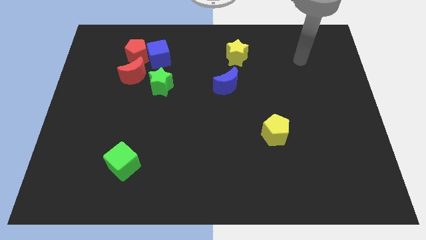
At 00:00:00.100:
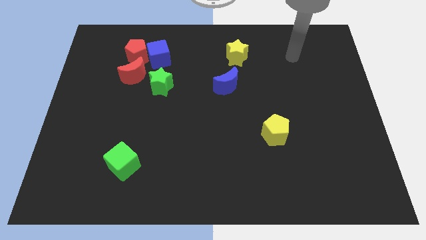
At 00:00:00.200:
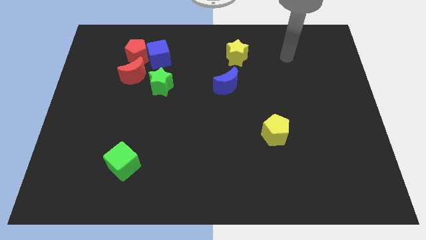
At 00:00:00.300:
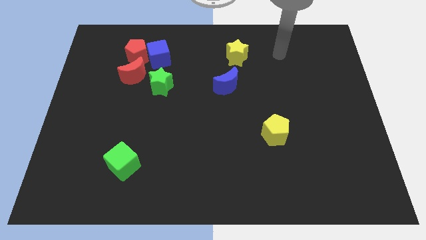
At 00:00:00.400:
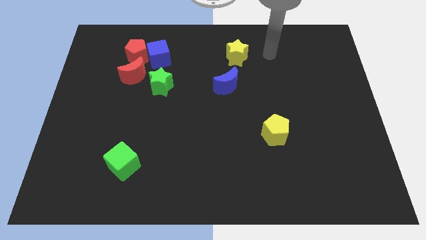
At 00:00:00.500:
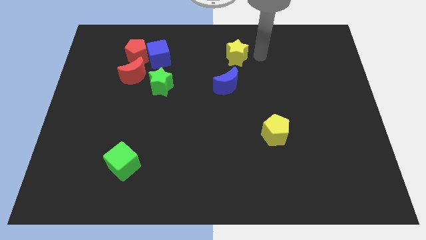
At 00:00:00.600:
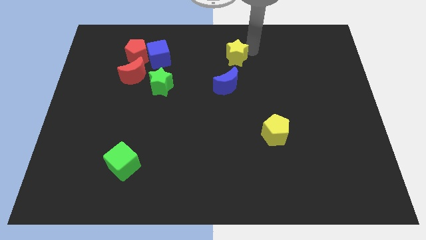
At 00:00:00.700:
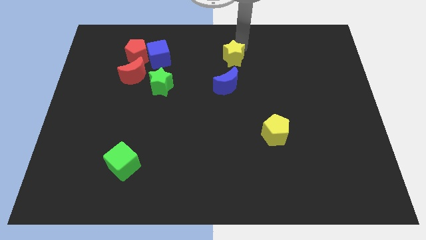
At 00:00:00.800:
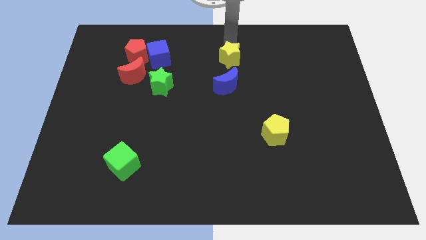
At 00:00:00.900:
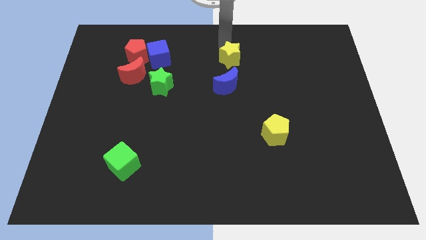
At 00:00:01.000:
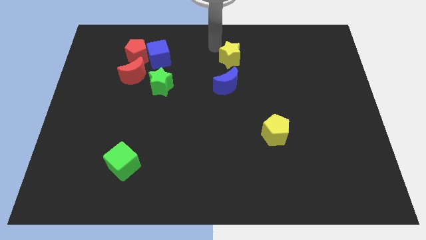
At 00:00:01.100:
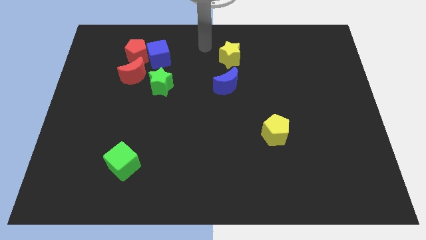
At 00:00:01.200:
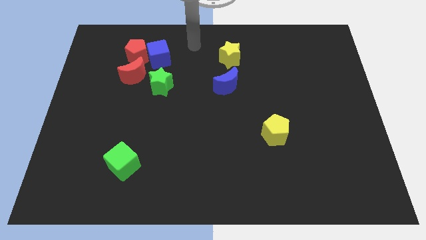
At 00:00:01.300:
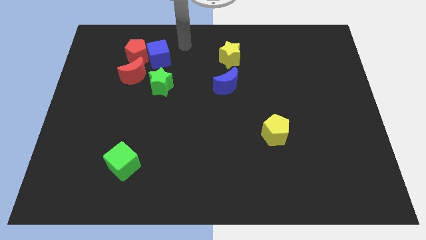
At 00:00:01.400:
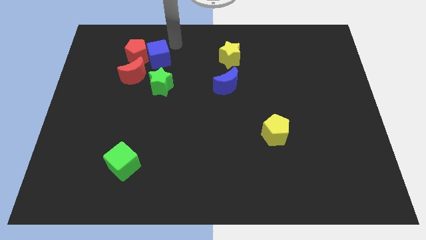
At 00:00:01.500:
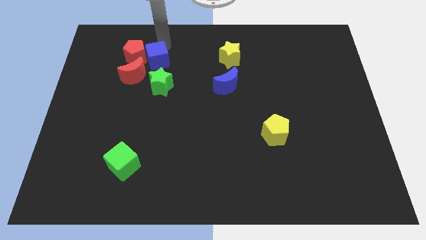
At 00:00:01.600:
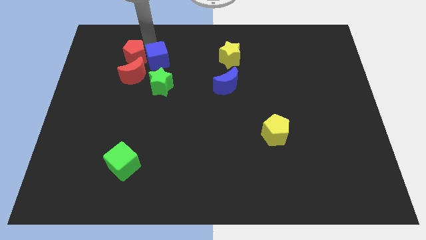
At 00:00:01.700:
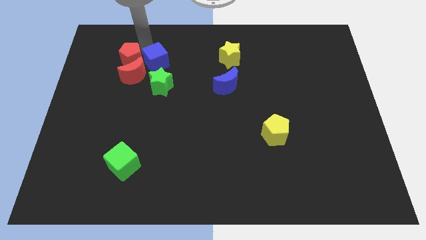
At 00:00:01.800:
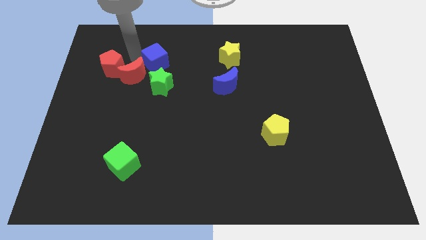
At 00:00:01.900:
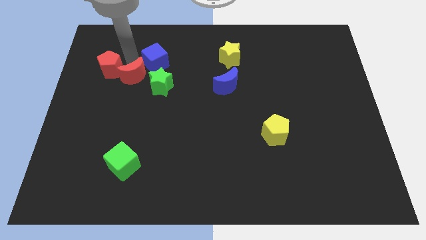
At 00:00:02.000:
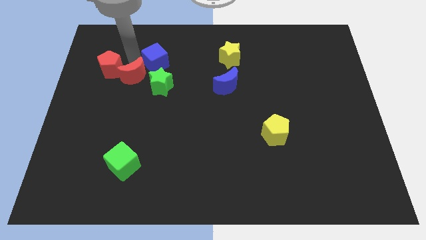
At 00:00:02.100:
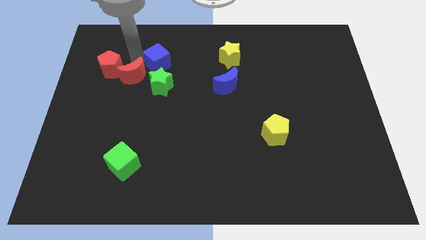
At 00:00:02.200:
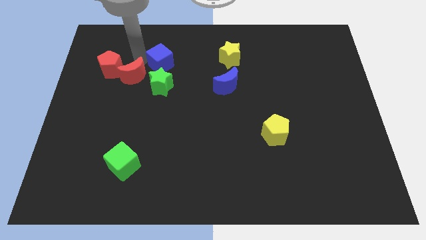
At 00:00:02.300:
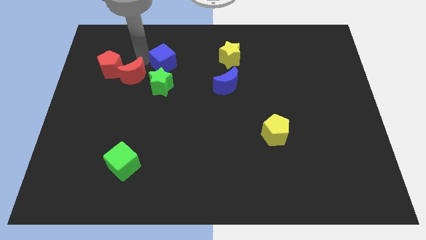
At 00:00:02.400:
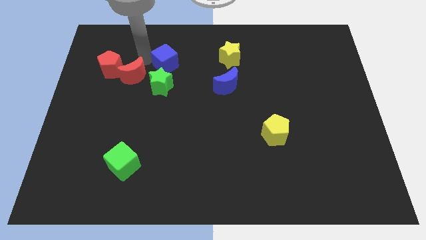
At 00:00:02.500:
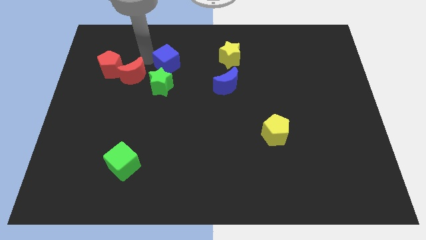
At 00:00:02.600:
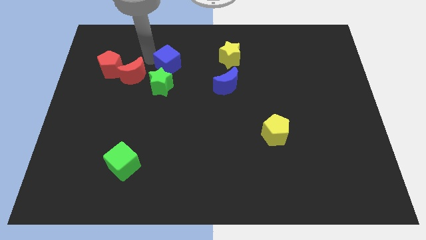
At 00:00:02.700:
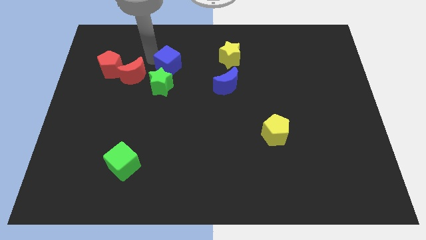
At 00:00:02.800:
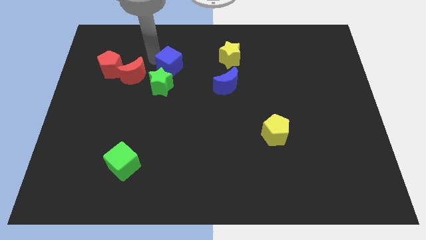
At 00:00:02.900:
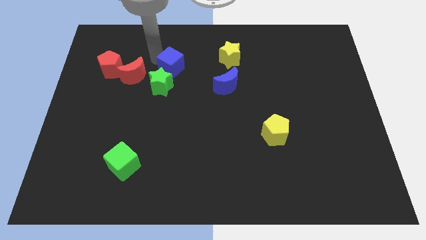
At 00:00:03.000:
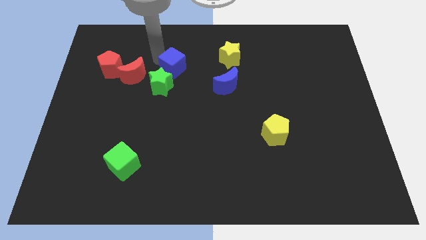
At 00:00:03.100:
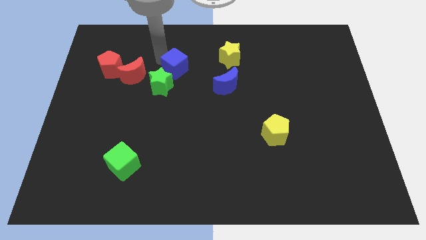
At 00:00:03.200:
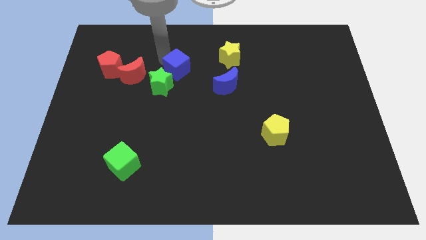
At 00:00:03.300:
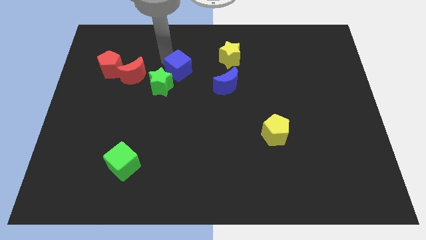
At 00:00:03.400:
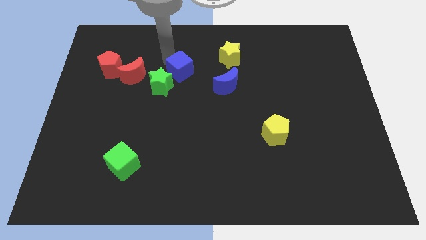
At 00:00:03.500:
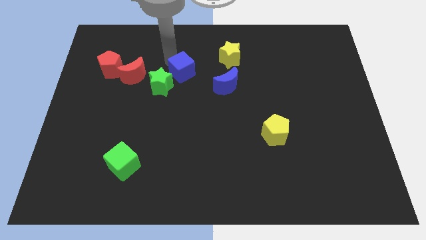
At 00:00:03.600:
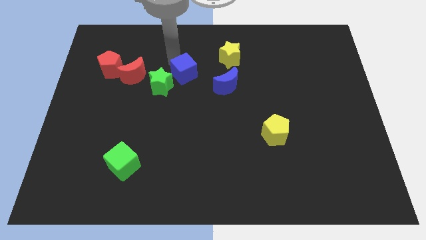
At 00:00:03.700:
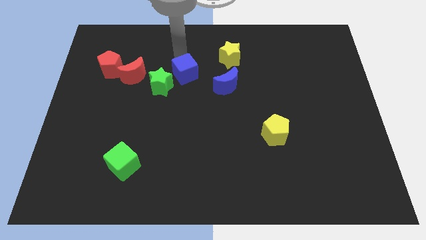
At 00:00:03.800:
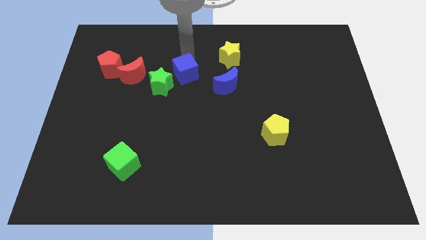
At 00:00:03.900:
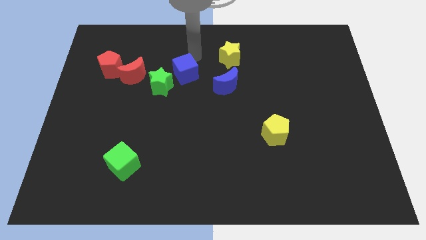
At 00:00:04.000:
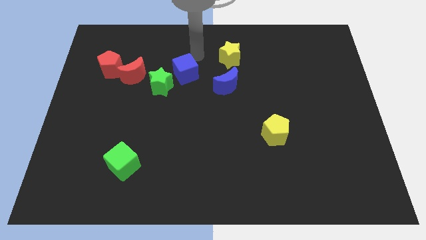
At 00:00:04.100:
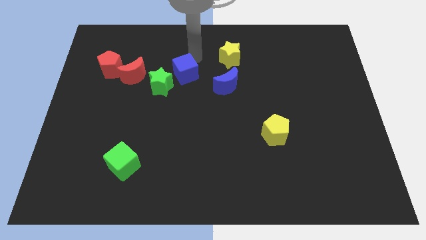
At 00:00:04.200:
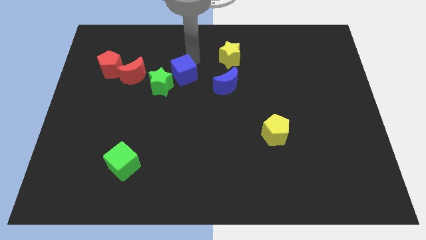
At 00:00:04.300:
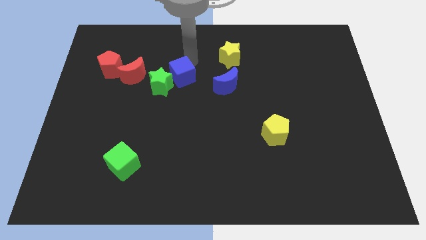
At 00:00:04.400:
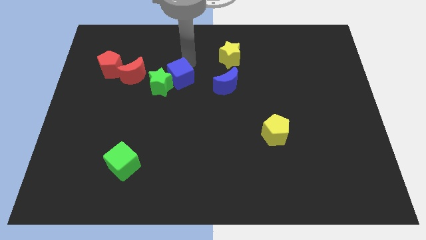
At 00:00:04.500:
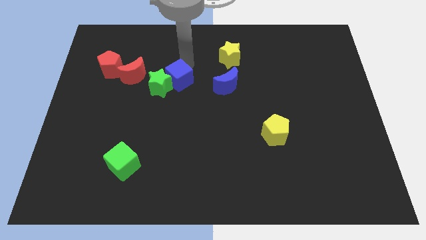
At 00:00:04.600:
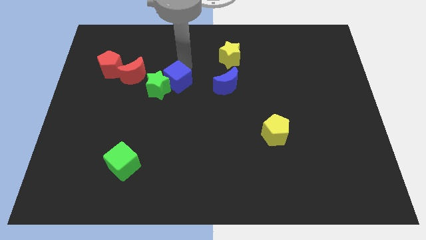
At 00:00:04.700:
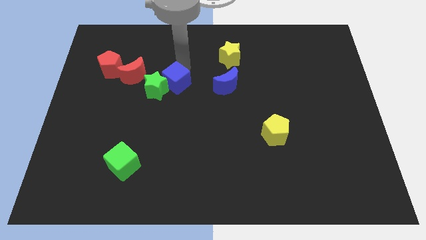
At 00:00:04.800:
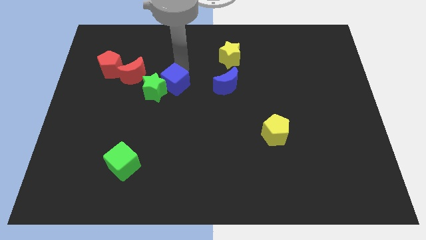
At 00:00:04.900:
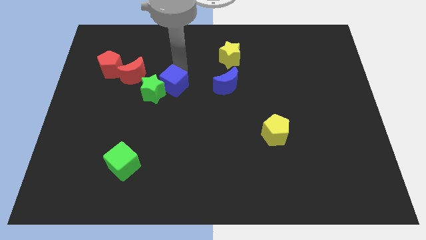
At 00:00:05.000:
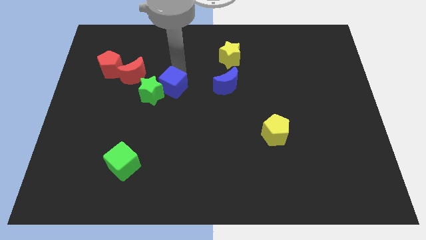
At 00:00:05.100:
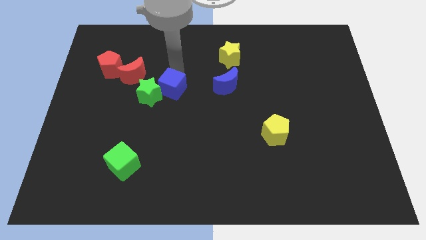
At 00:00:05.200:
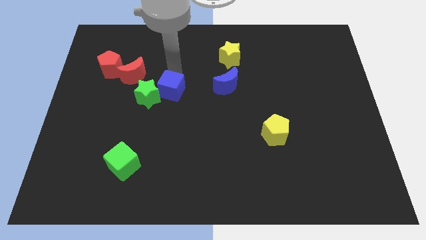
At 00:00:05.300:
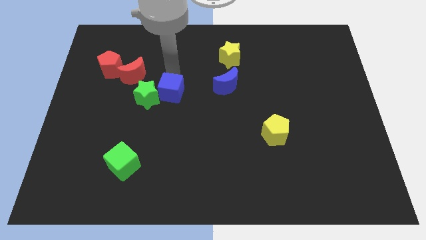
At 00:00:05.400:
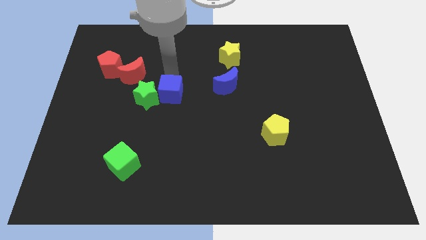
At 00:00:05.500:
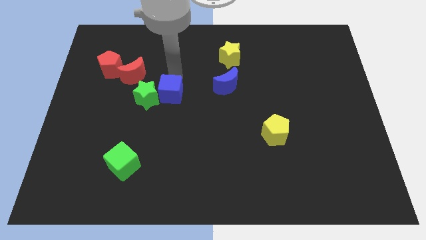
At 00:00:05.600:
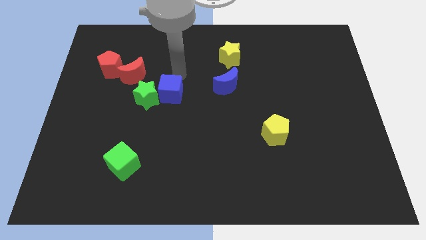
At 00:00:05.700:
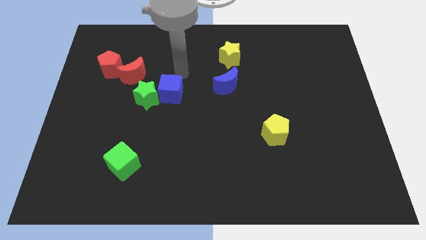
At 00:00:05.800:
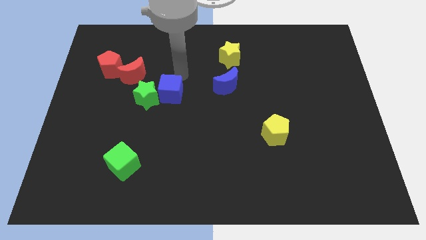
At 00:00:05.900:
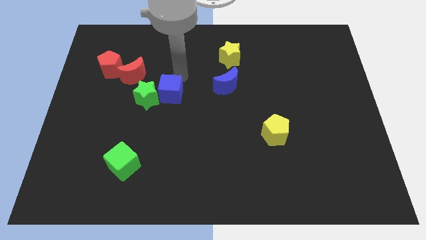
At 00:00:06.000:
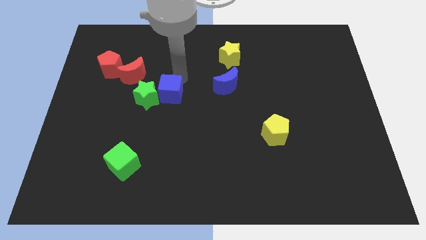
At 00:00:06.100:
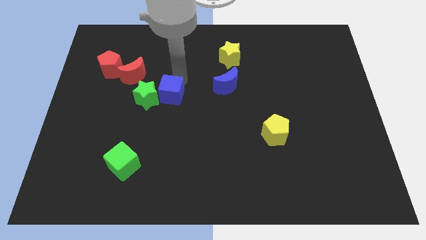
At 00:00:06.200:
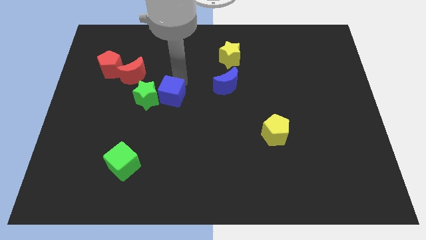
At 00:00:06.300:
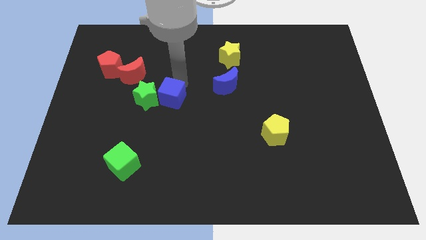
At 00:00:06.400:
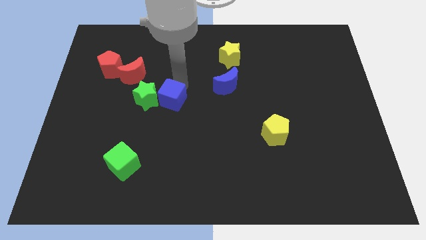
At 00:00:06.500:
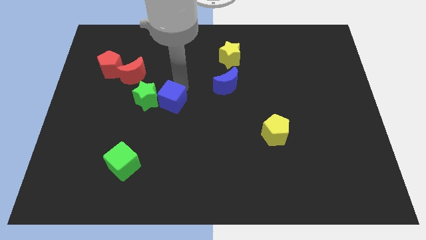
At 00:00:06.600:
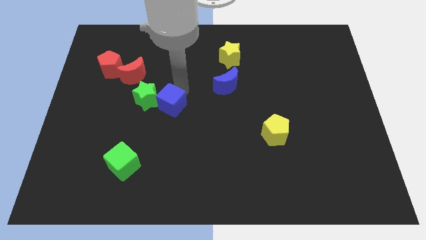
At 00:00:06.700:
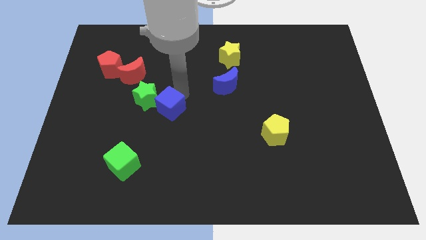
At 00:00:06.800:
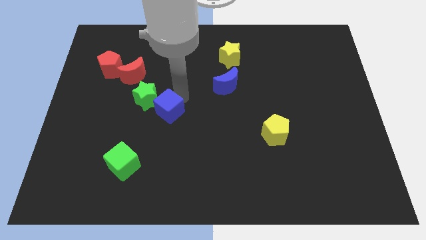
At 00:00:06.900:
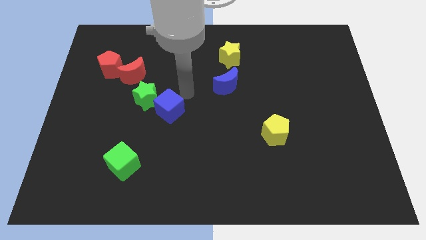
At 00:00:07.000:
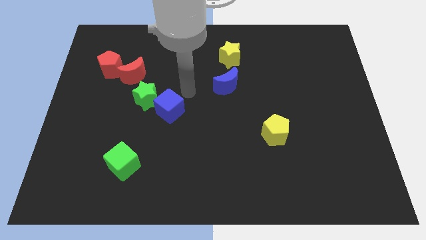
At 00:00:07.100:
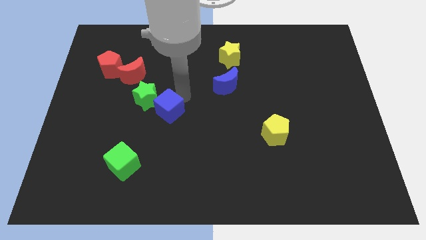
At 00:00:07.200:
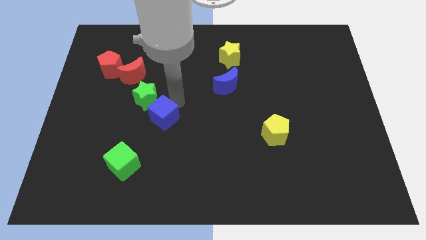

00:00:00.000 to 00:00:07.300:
slide the blue cube to the bottom of the green star
